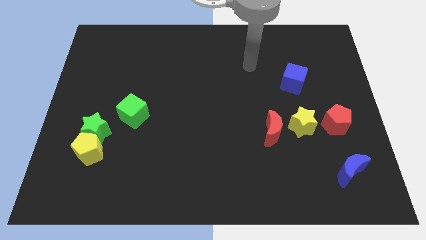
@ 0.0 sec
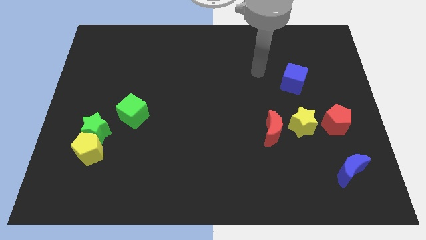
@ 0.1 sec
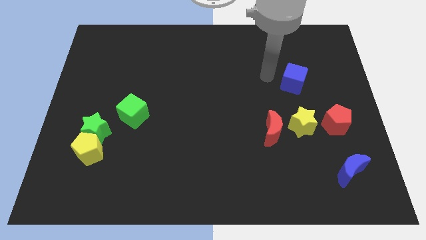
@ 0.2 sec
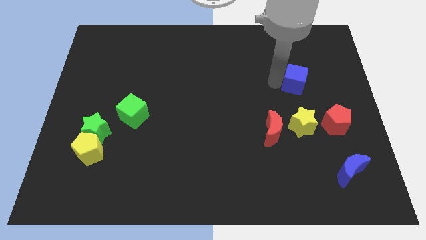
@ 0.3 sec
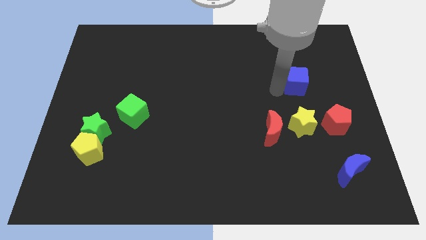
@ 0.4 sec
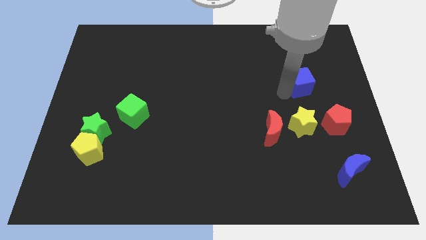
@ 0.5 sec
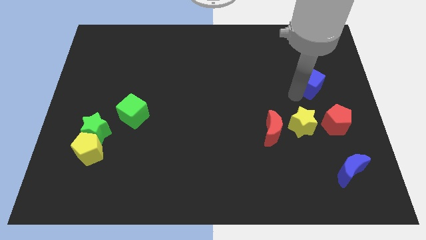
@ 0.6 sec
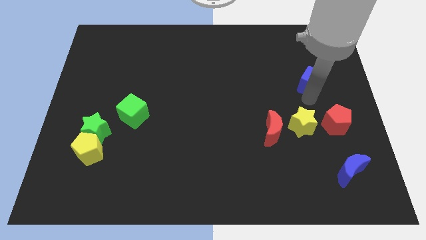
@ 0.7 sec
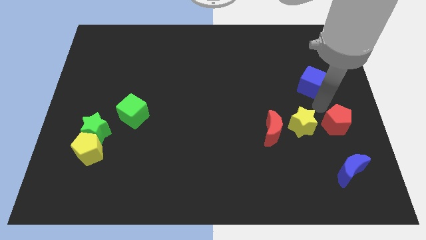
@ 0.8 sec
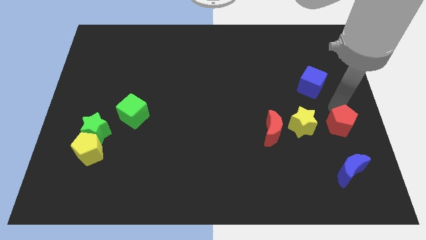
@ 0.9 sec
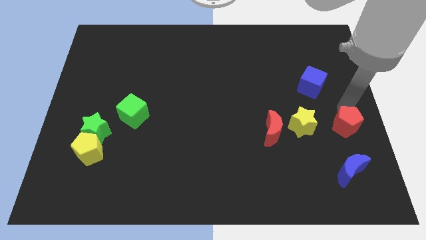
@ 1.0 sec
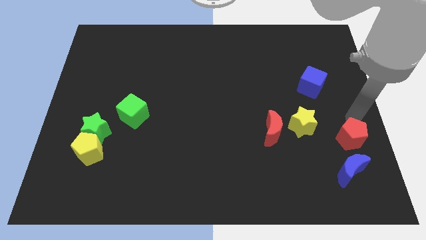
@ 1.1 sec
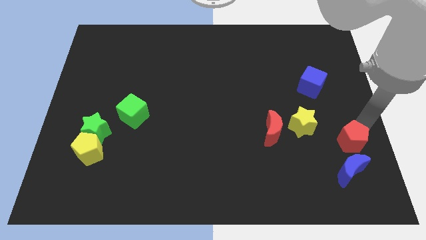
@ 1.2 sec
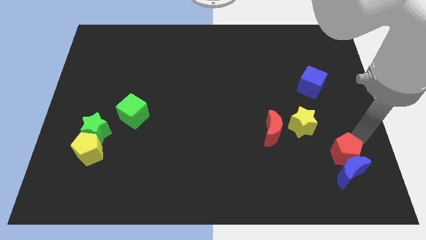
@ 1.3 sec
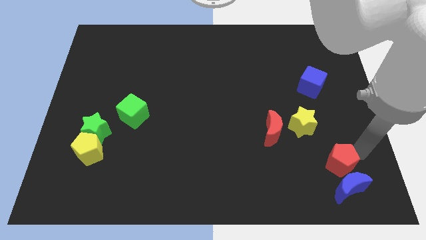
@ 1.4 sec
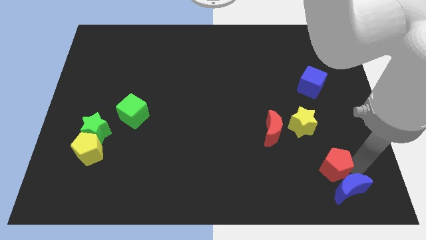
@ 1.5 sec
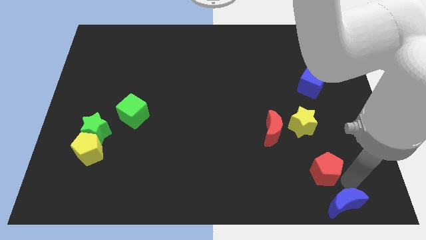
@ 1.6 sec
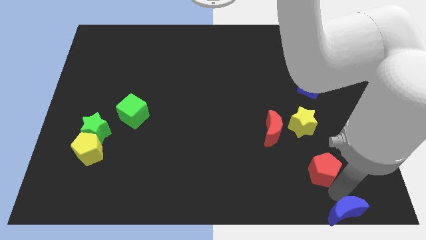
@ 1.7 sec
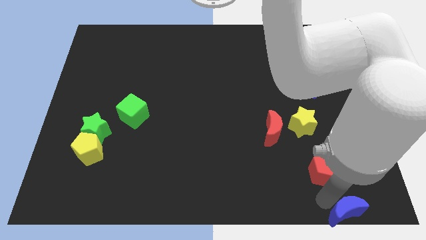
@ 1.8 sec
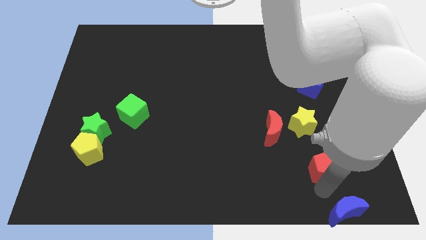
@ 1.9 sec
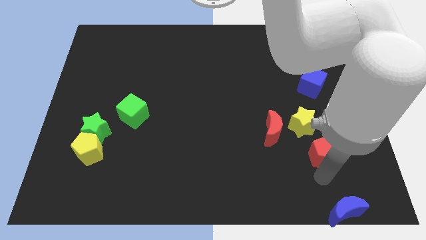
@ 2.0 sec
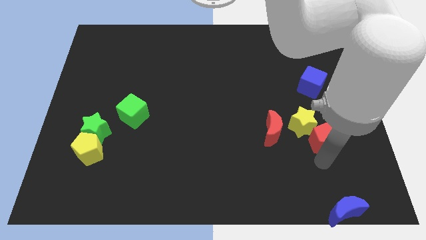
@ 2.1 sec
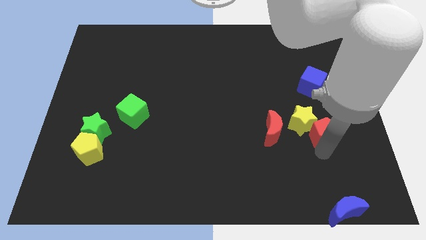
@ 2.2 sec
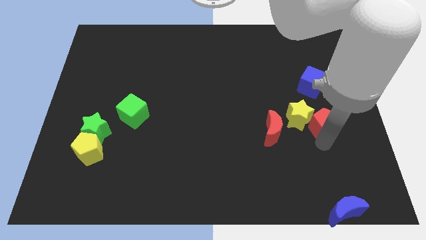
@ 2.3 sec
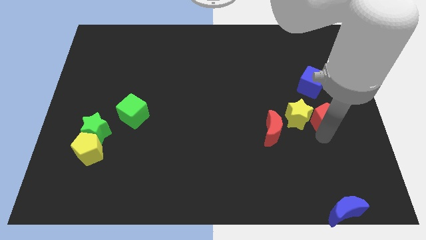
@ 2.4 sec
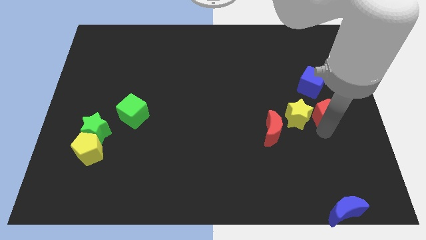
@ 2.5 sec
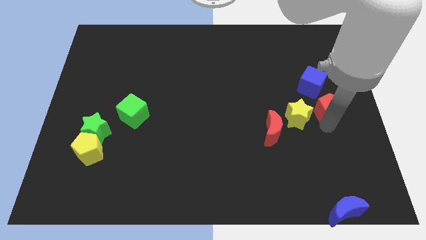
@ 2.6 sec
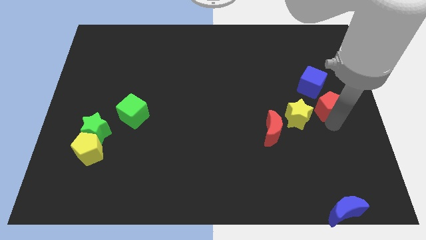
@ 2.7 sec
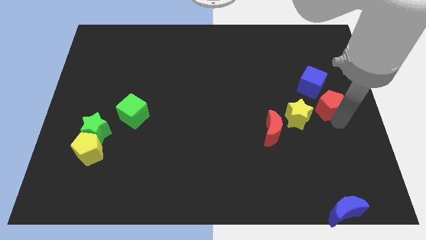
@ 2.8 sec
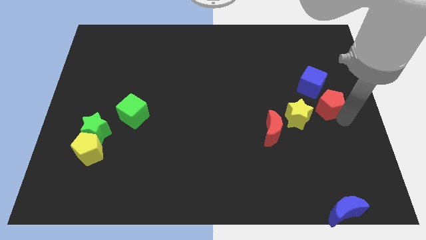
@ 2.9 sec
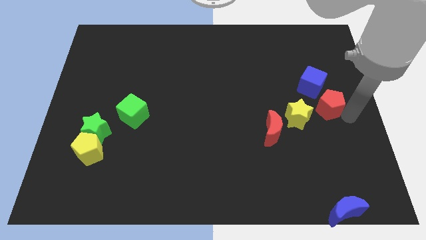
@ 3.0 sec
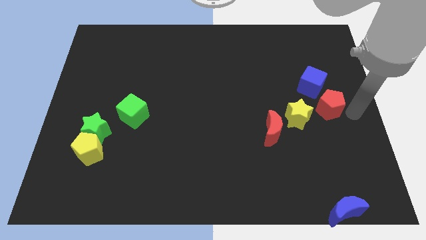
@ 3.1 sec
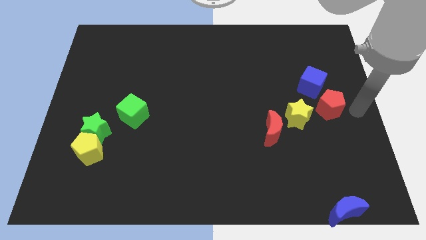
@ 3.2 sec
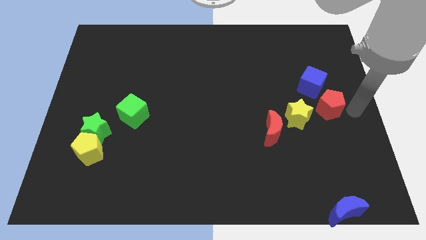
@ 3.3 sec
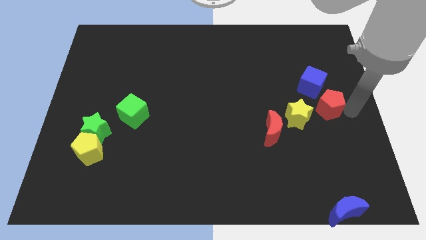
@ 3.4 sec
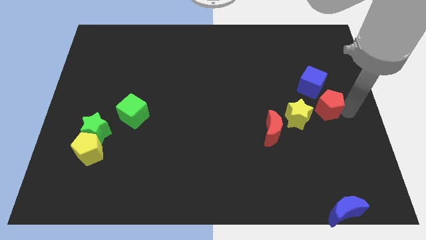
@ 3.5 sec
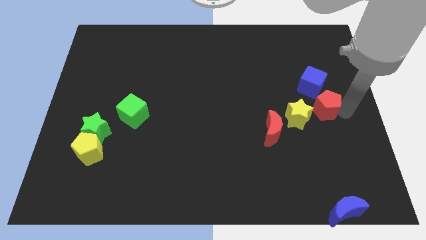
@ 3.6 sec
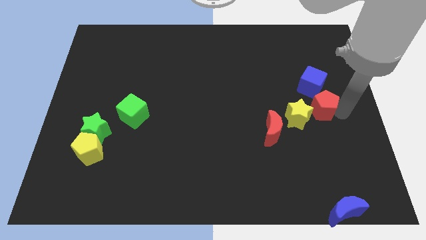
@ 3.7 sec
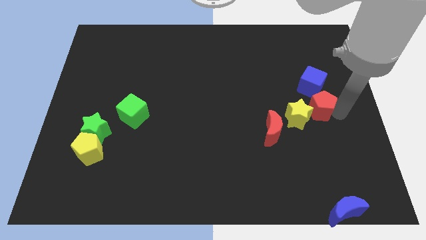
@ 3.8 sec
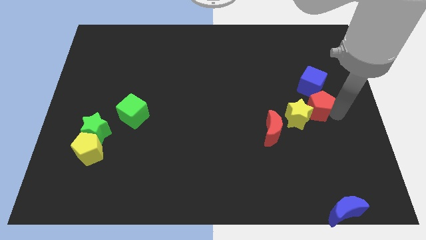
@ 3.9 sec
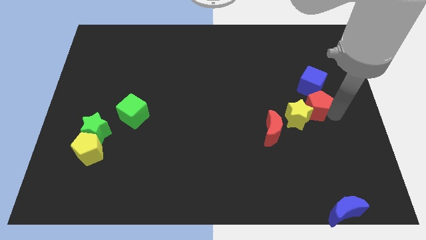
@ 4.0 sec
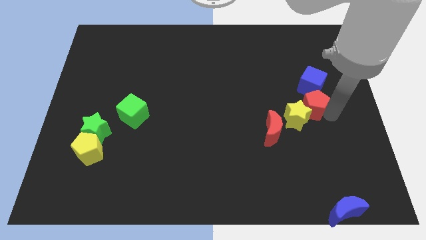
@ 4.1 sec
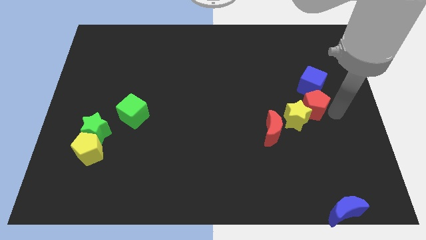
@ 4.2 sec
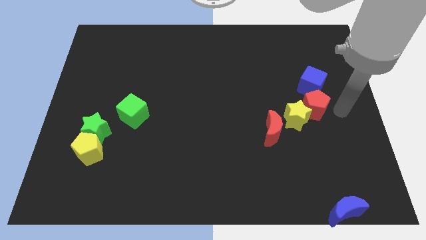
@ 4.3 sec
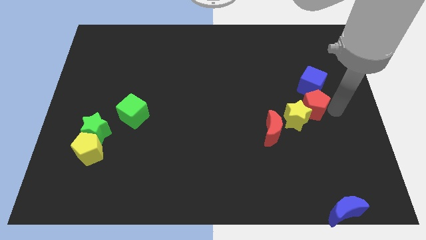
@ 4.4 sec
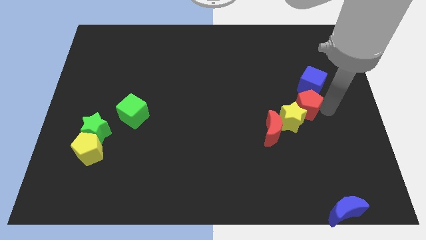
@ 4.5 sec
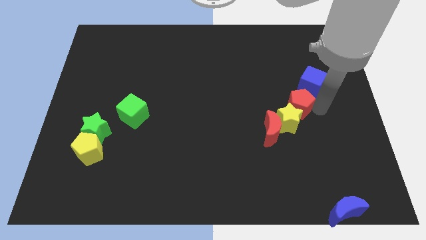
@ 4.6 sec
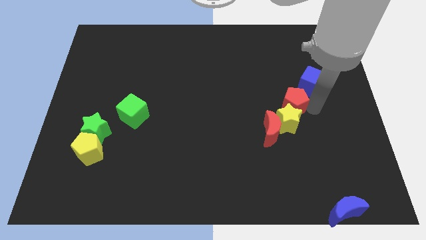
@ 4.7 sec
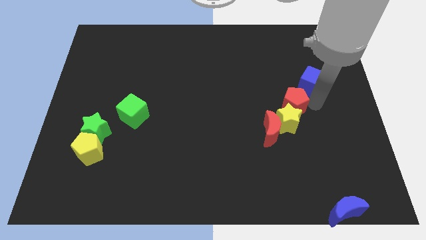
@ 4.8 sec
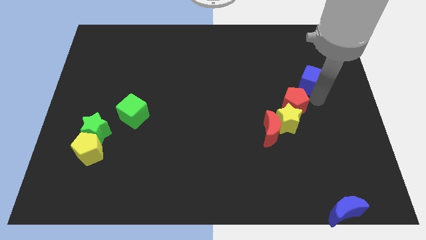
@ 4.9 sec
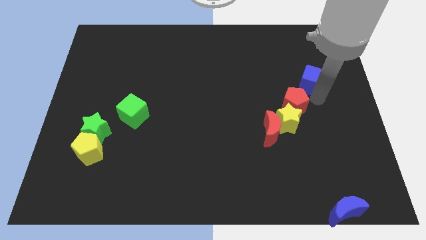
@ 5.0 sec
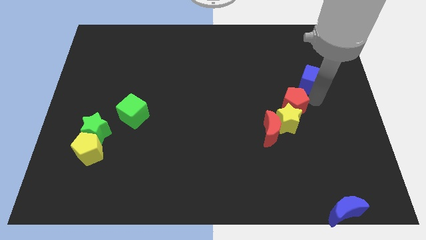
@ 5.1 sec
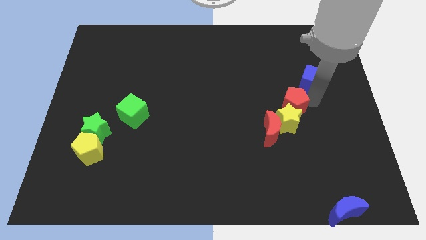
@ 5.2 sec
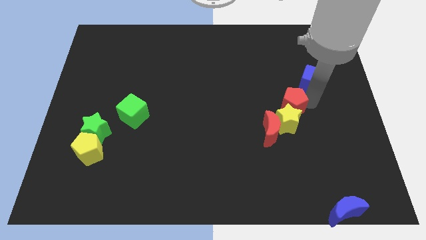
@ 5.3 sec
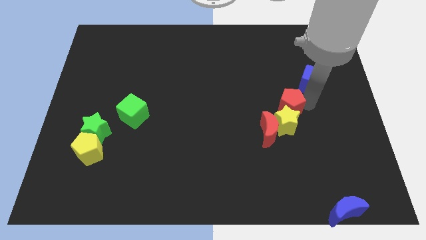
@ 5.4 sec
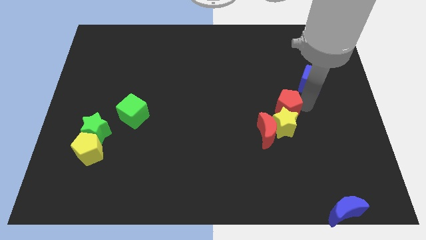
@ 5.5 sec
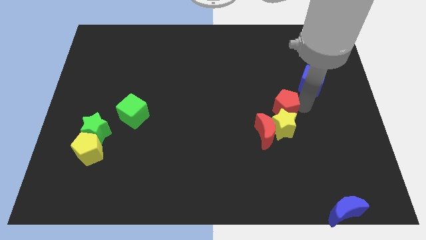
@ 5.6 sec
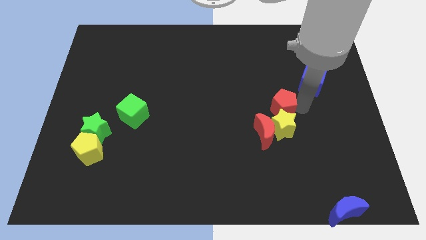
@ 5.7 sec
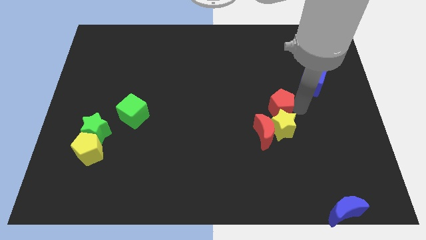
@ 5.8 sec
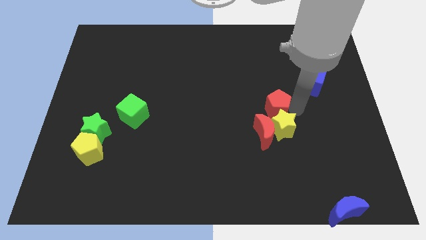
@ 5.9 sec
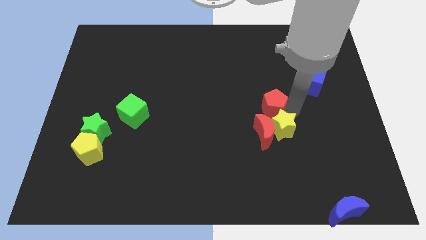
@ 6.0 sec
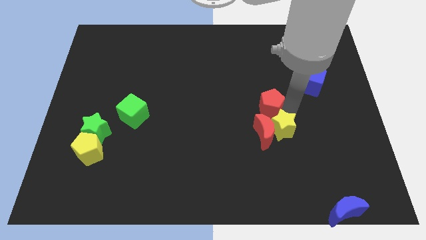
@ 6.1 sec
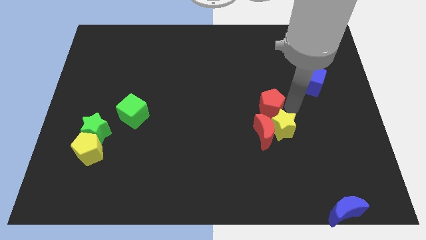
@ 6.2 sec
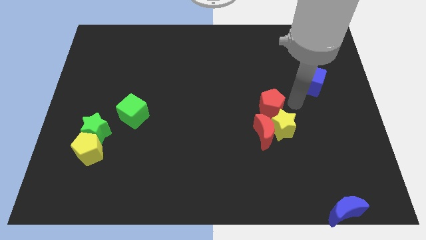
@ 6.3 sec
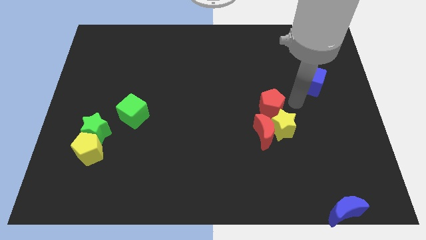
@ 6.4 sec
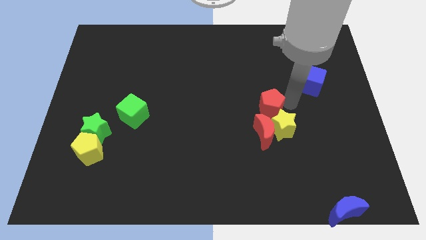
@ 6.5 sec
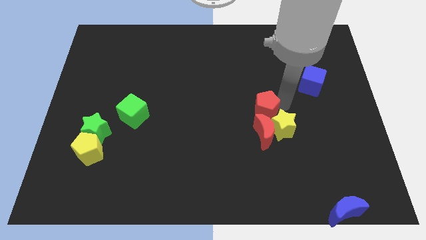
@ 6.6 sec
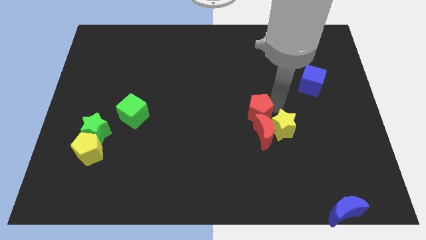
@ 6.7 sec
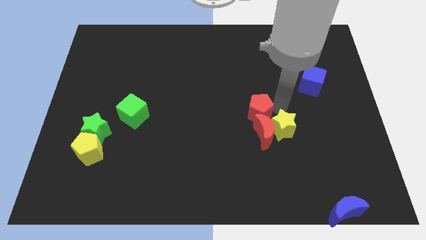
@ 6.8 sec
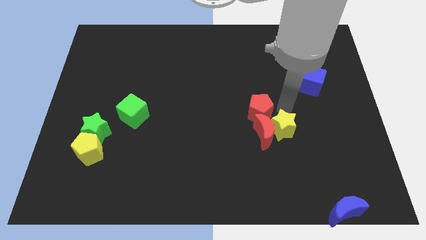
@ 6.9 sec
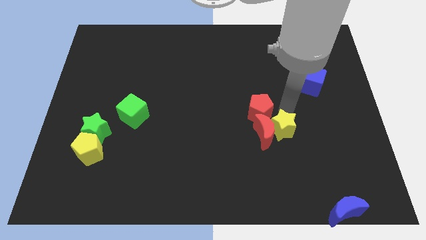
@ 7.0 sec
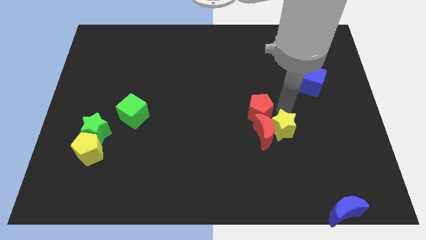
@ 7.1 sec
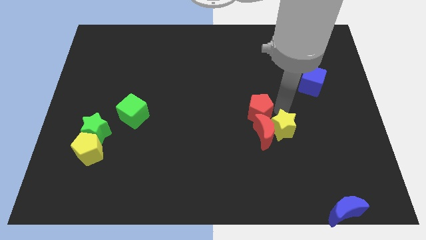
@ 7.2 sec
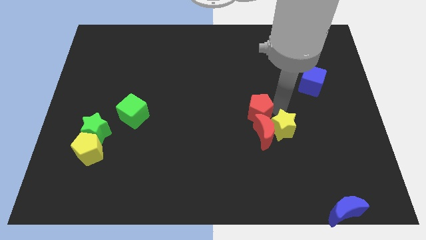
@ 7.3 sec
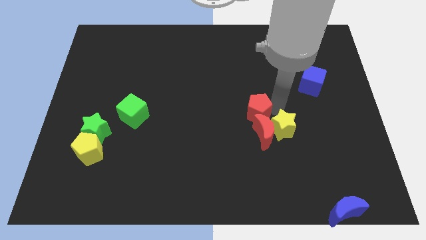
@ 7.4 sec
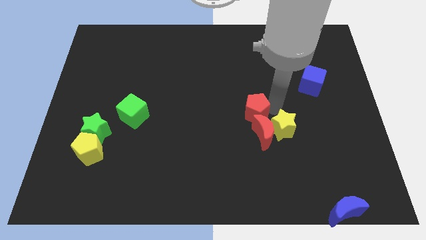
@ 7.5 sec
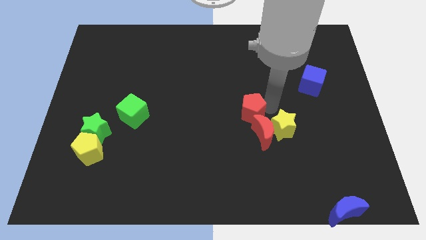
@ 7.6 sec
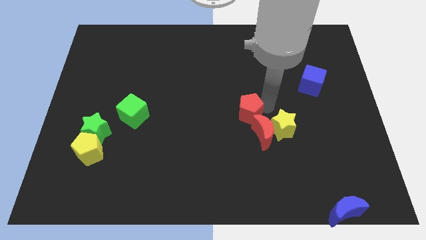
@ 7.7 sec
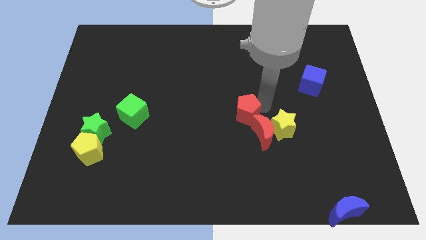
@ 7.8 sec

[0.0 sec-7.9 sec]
move the red pentagon left
